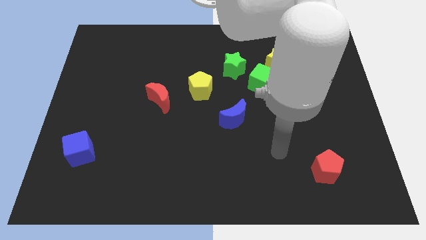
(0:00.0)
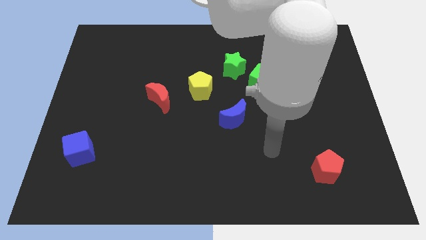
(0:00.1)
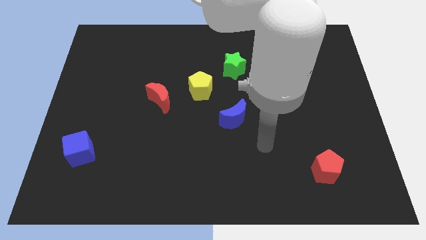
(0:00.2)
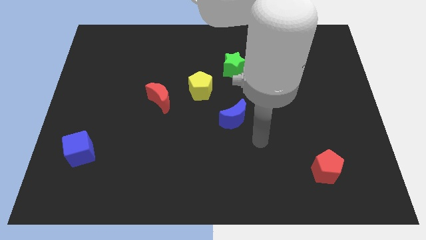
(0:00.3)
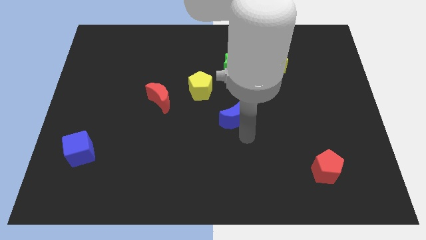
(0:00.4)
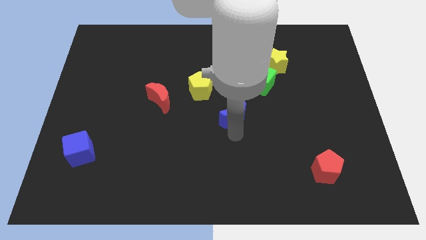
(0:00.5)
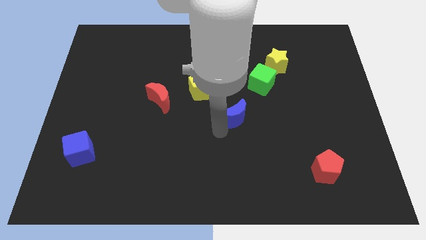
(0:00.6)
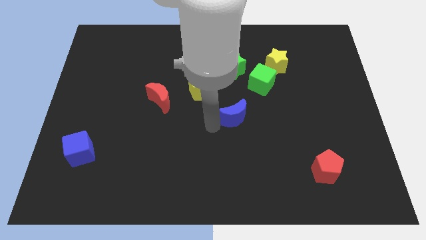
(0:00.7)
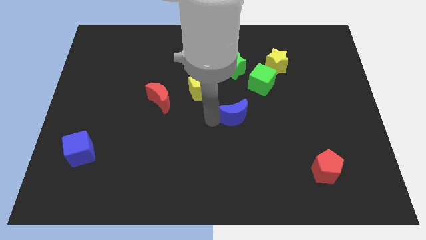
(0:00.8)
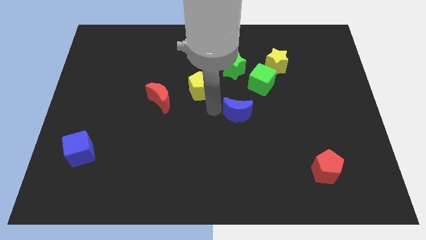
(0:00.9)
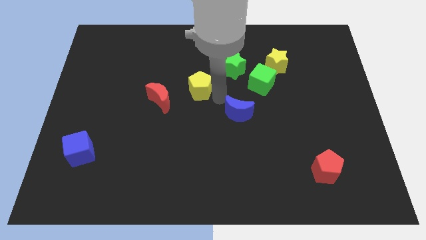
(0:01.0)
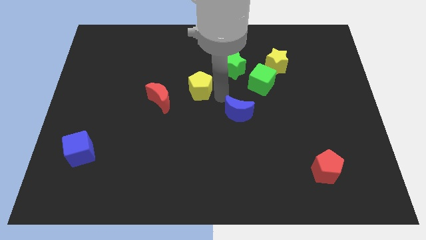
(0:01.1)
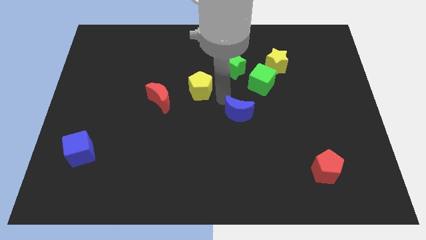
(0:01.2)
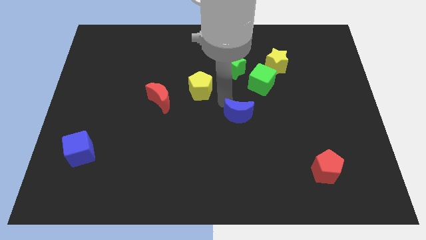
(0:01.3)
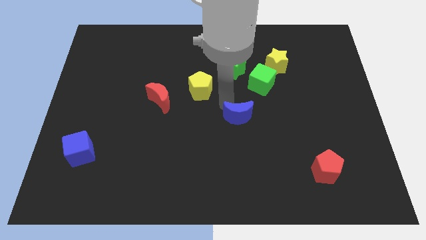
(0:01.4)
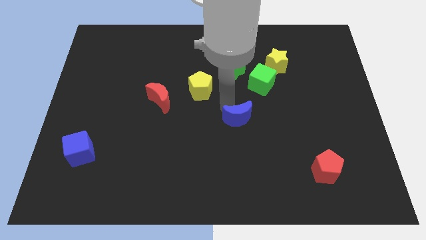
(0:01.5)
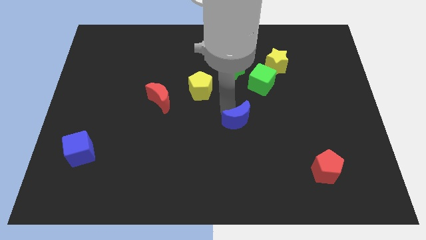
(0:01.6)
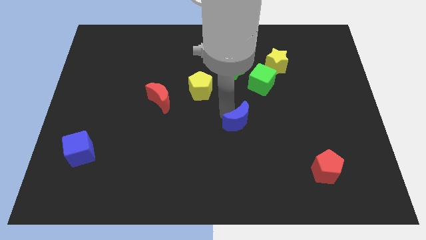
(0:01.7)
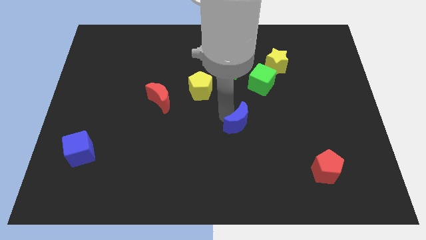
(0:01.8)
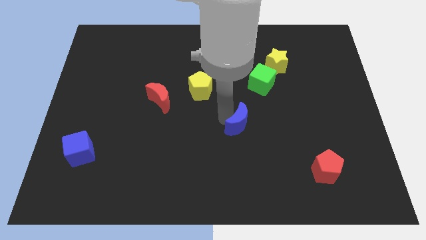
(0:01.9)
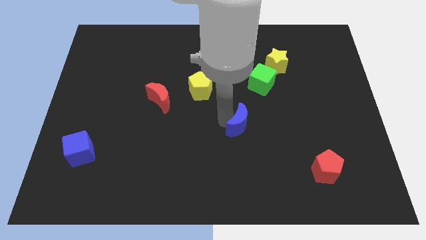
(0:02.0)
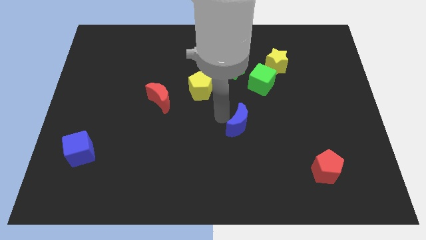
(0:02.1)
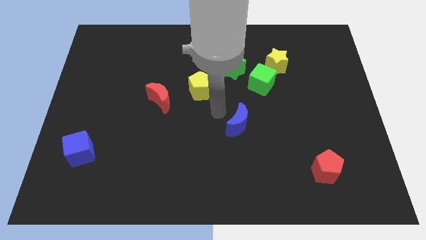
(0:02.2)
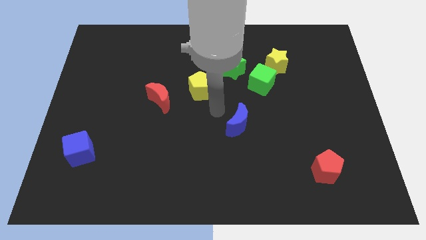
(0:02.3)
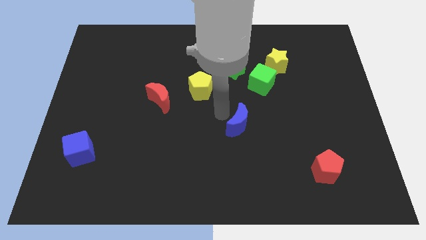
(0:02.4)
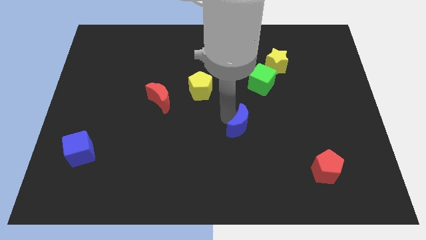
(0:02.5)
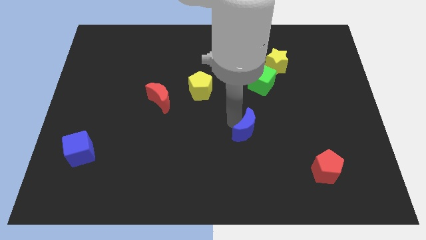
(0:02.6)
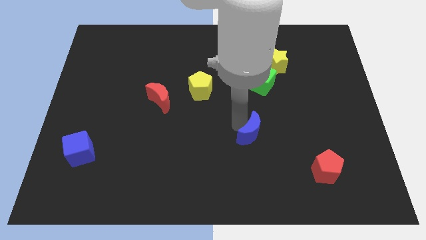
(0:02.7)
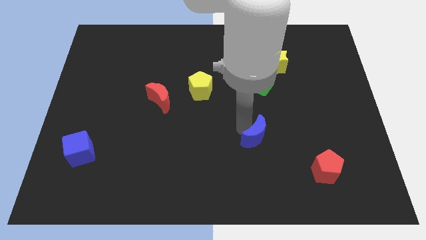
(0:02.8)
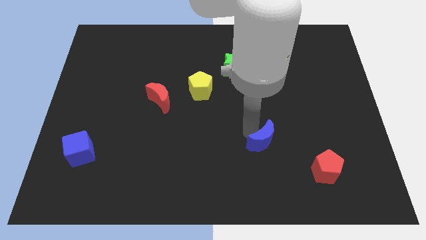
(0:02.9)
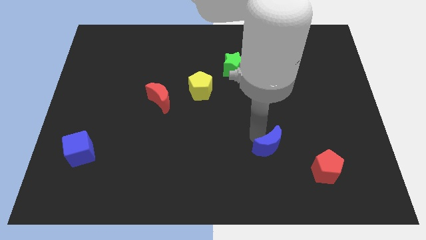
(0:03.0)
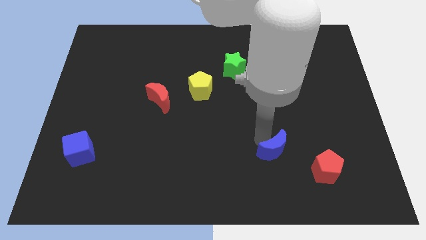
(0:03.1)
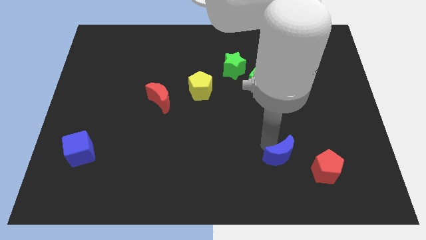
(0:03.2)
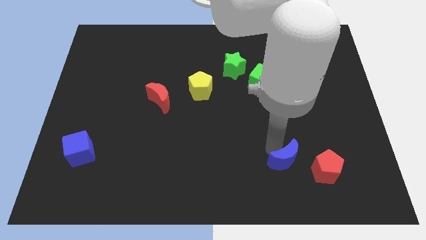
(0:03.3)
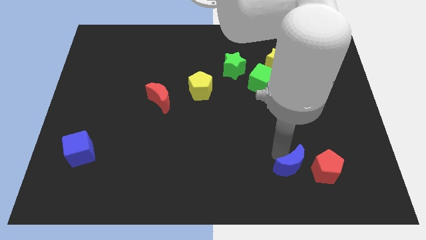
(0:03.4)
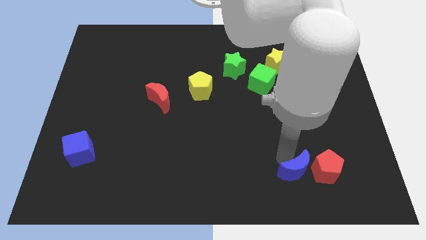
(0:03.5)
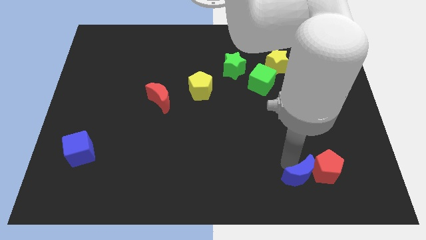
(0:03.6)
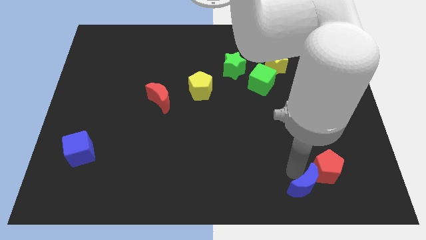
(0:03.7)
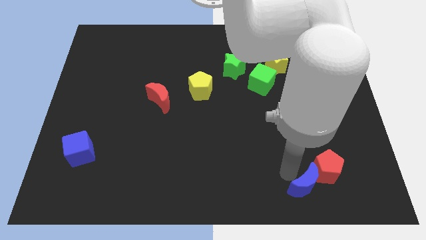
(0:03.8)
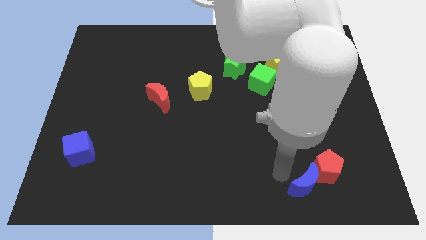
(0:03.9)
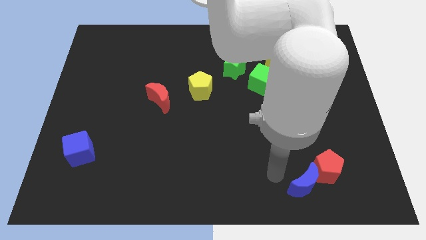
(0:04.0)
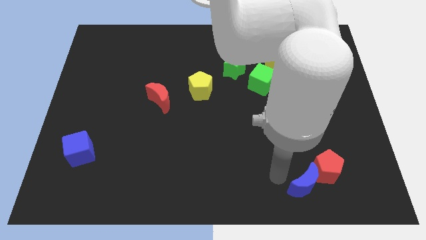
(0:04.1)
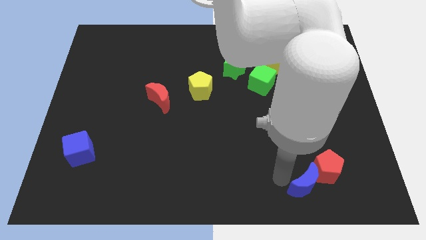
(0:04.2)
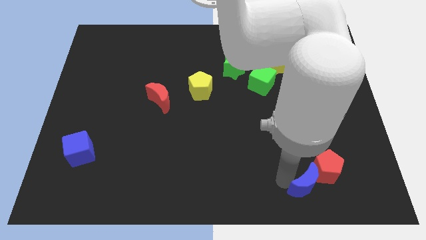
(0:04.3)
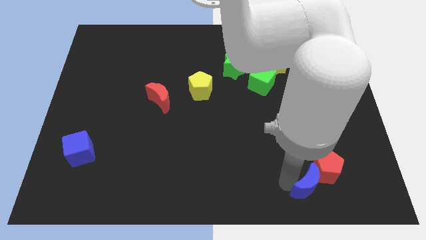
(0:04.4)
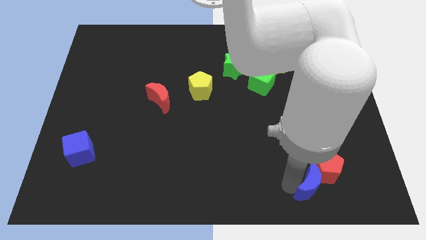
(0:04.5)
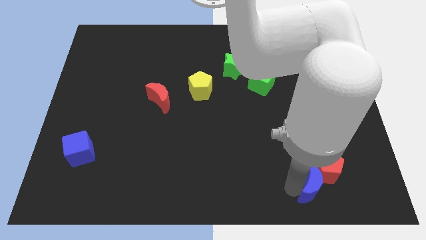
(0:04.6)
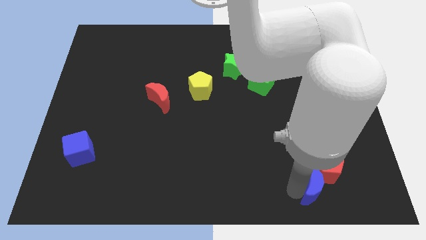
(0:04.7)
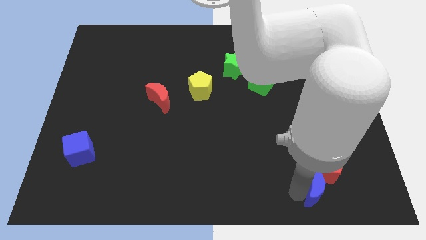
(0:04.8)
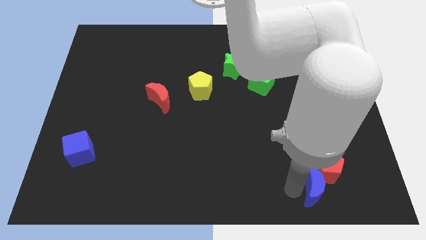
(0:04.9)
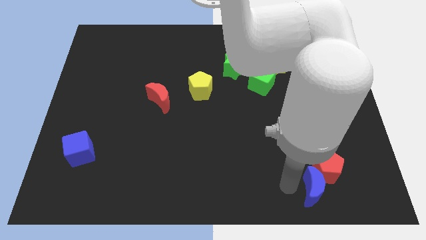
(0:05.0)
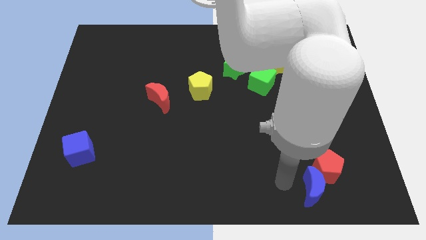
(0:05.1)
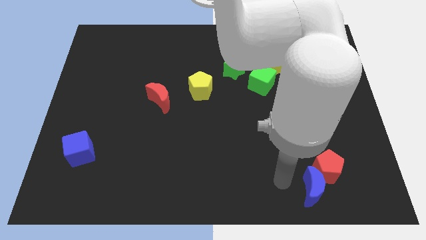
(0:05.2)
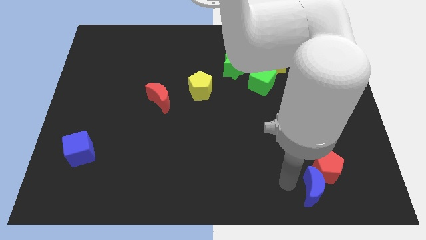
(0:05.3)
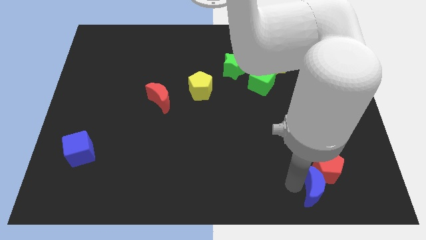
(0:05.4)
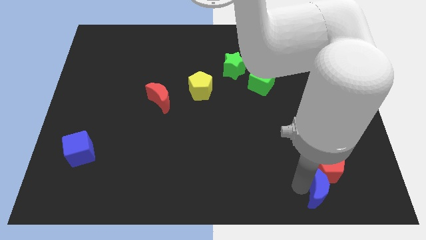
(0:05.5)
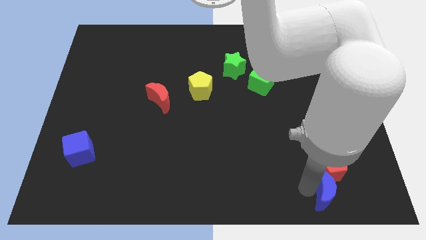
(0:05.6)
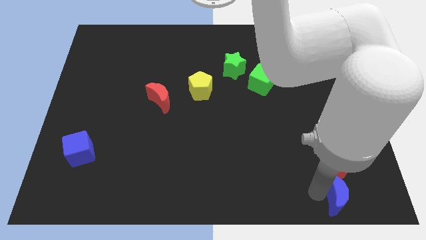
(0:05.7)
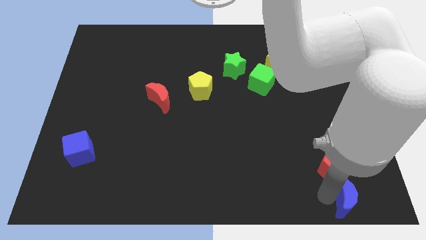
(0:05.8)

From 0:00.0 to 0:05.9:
push the blue moon to the lower right corner
